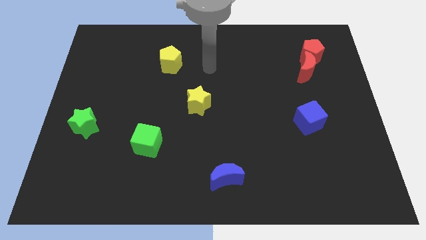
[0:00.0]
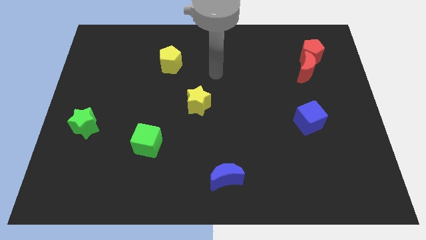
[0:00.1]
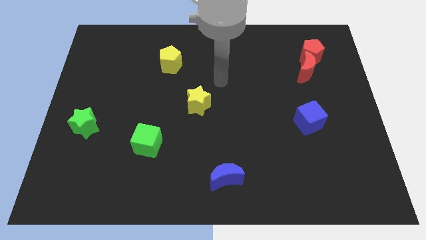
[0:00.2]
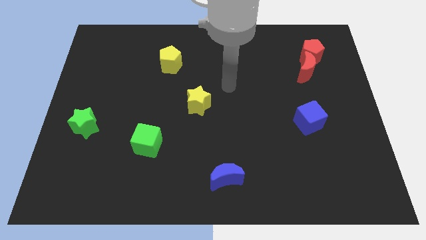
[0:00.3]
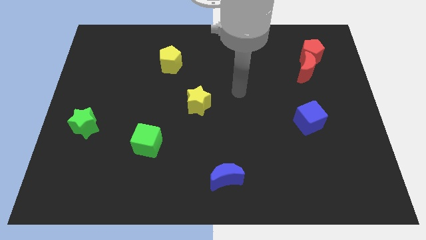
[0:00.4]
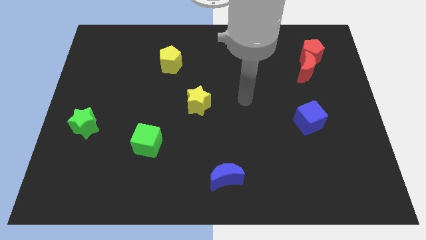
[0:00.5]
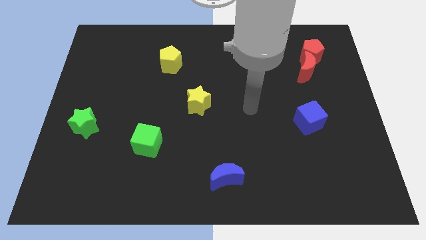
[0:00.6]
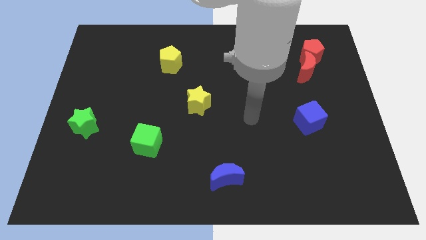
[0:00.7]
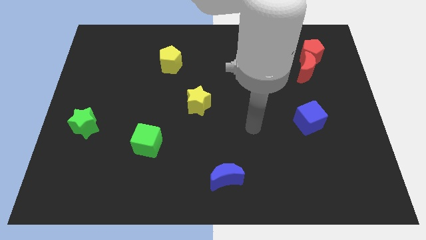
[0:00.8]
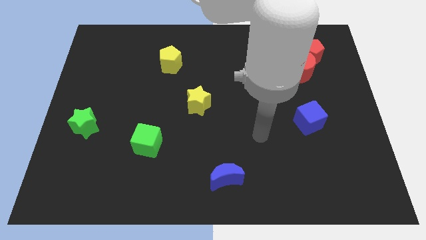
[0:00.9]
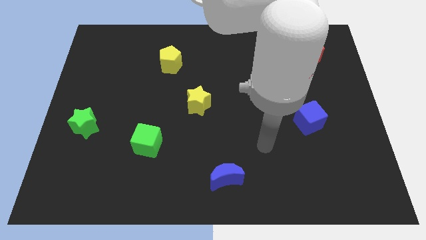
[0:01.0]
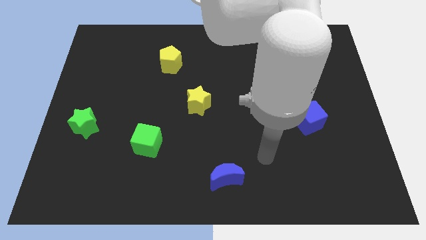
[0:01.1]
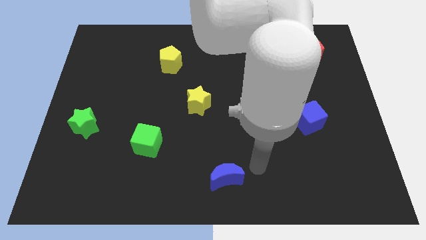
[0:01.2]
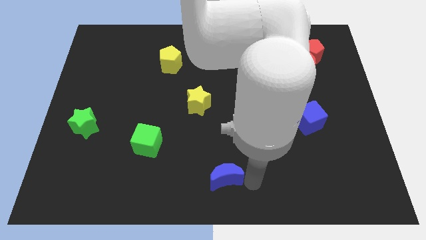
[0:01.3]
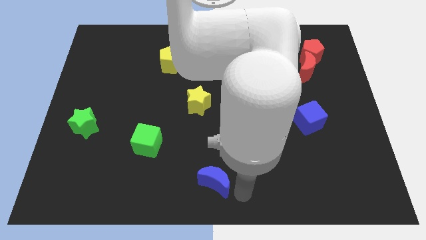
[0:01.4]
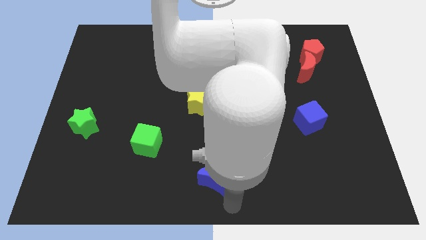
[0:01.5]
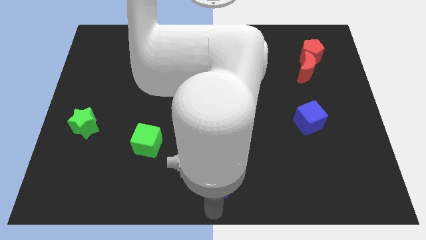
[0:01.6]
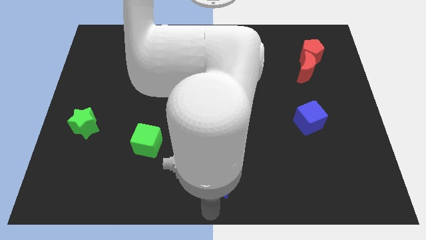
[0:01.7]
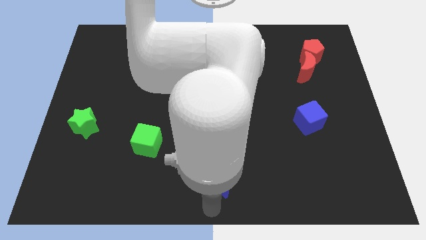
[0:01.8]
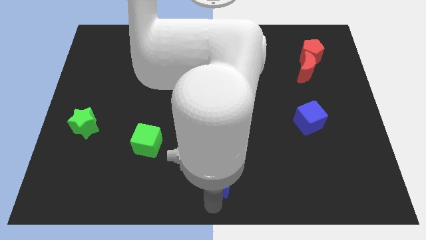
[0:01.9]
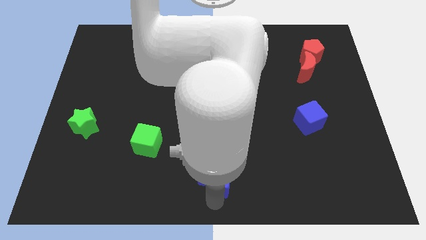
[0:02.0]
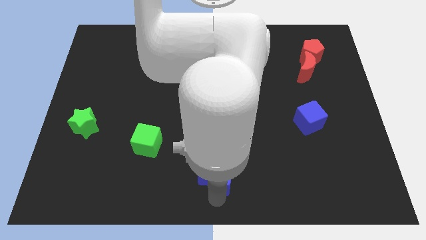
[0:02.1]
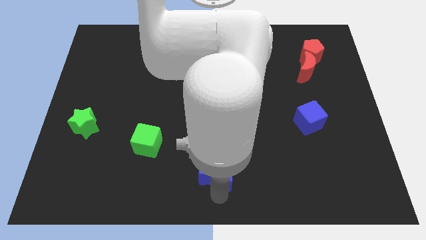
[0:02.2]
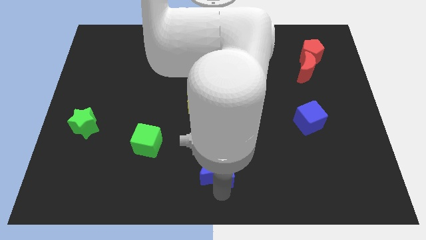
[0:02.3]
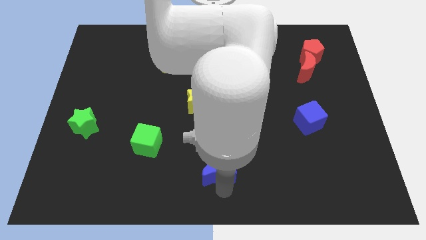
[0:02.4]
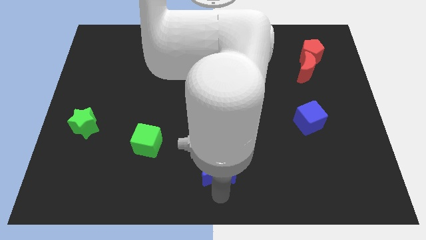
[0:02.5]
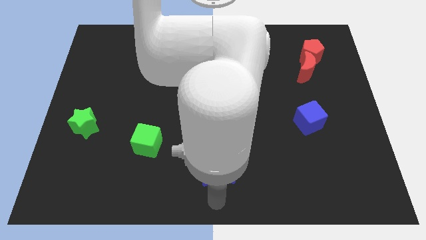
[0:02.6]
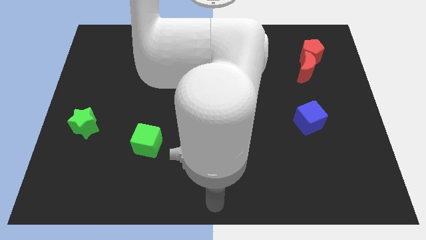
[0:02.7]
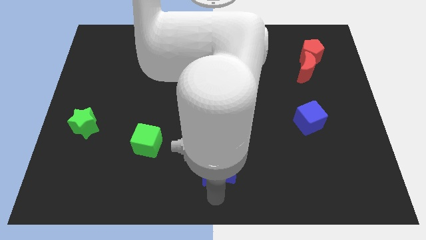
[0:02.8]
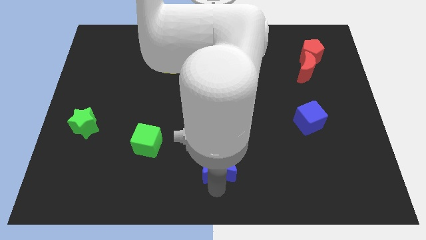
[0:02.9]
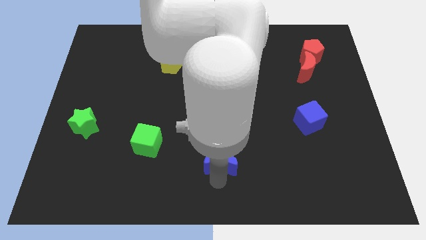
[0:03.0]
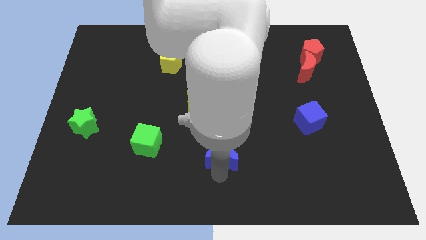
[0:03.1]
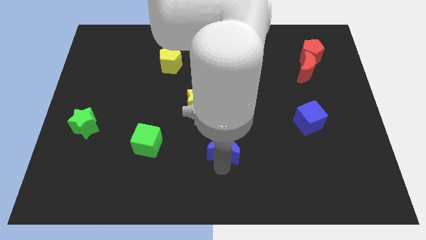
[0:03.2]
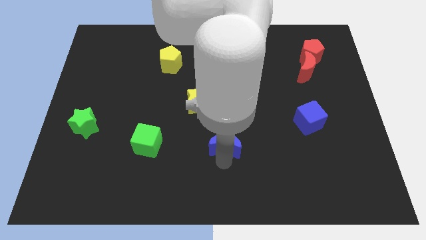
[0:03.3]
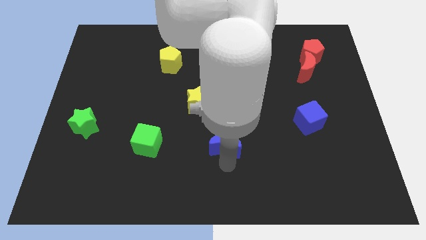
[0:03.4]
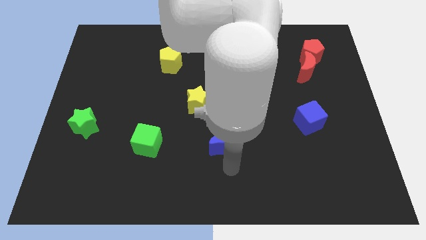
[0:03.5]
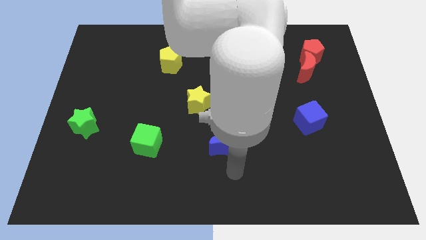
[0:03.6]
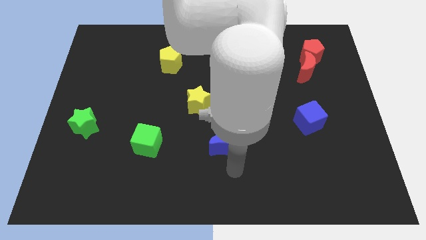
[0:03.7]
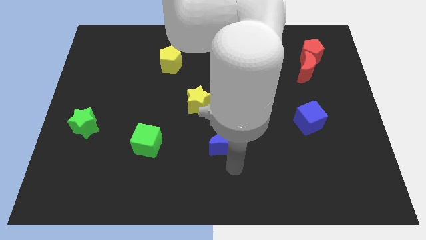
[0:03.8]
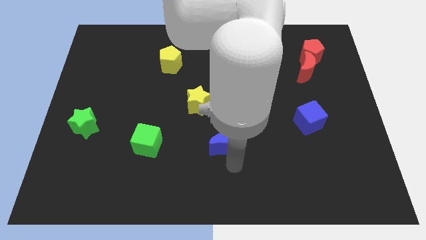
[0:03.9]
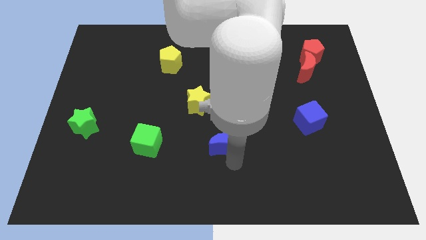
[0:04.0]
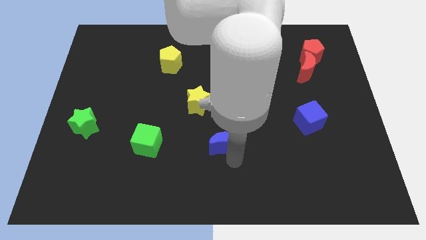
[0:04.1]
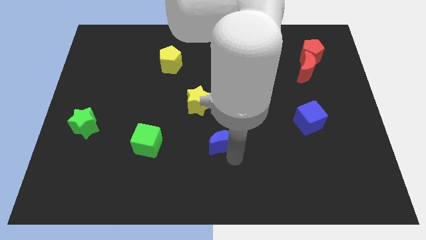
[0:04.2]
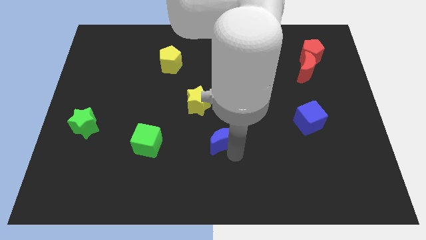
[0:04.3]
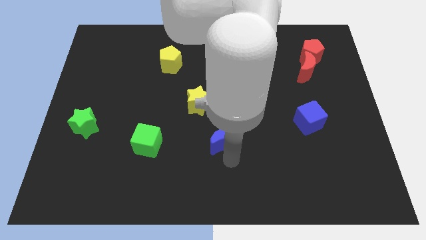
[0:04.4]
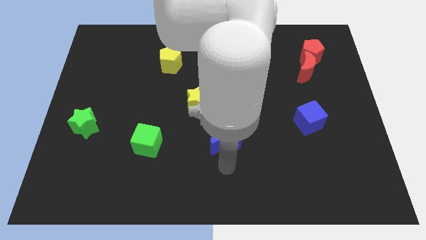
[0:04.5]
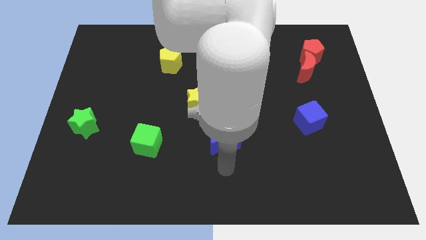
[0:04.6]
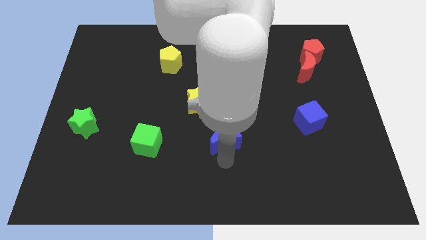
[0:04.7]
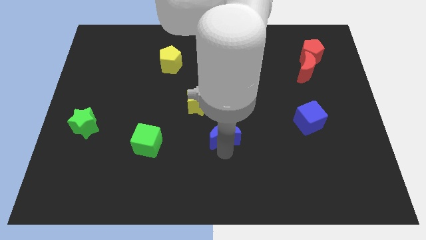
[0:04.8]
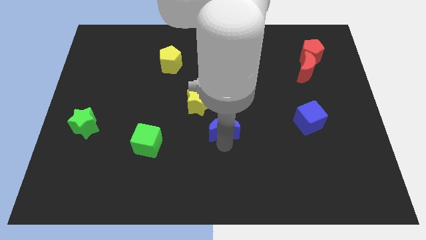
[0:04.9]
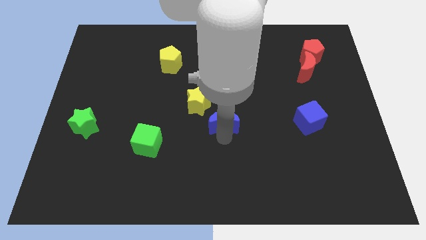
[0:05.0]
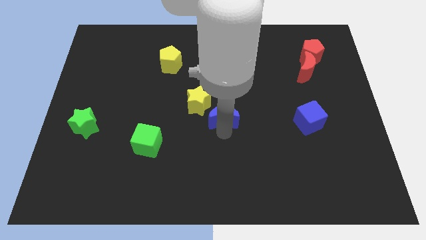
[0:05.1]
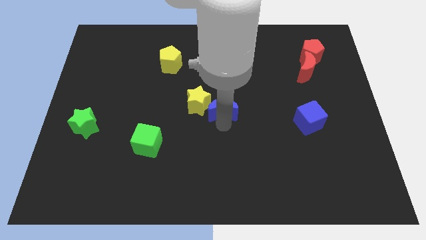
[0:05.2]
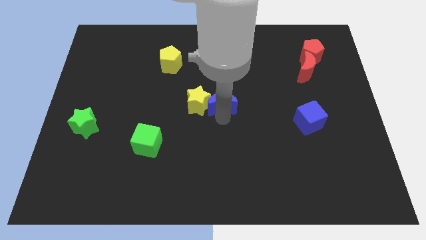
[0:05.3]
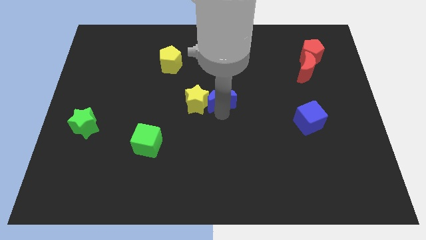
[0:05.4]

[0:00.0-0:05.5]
move the blue moon up

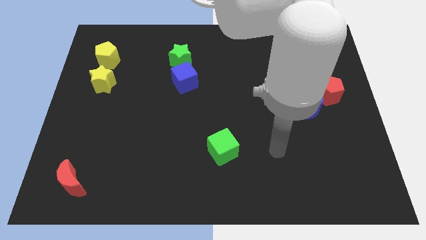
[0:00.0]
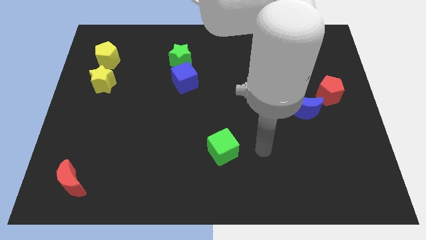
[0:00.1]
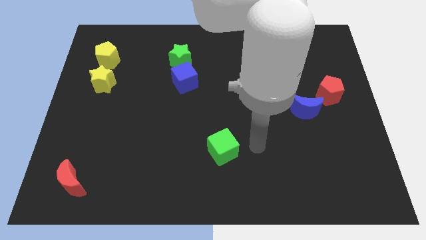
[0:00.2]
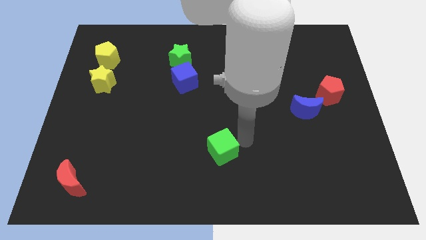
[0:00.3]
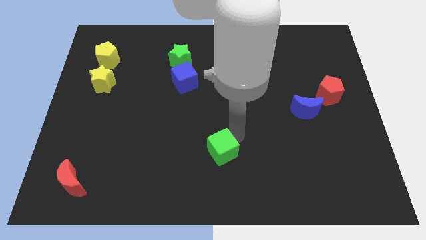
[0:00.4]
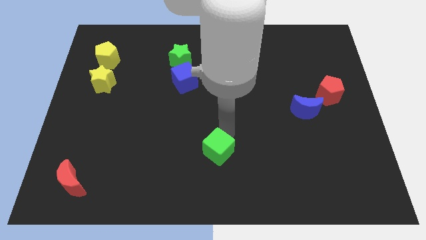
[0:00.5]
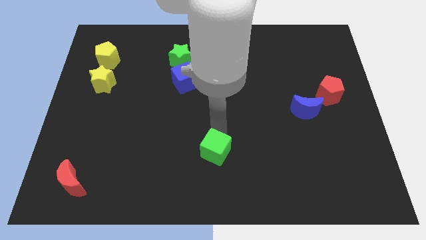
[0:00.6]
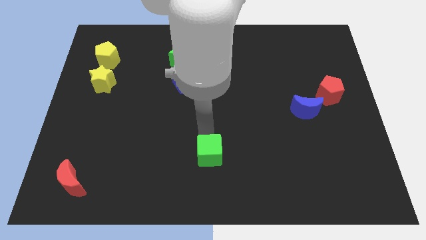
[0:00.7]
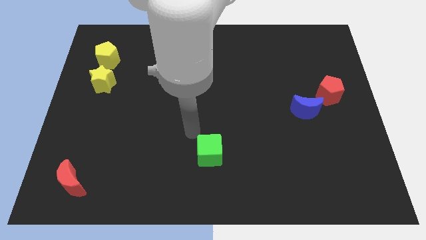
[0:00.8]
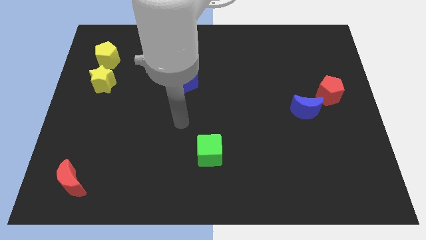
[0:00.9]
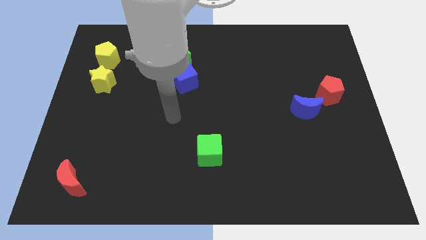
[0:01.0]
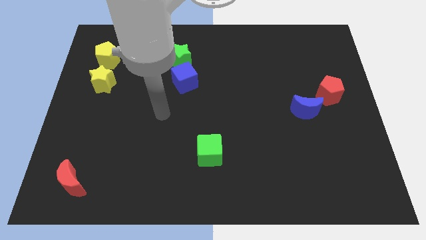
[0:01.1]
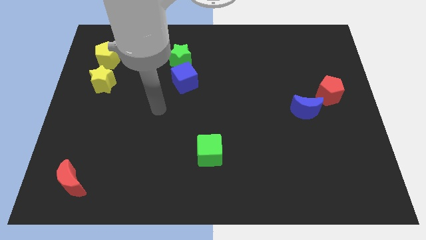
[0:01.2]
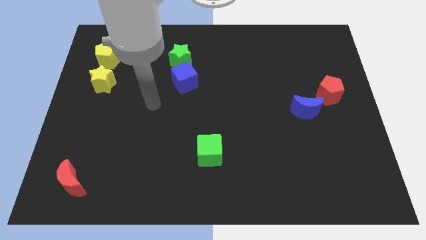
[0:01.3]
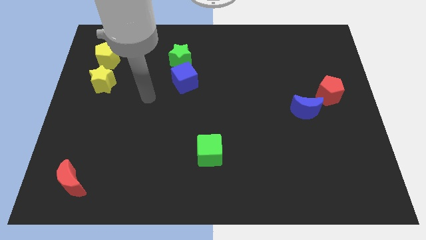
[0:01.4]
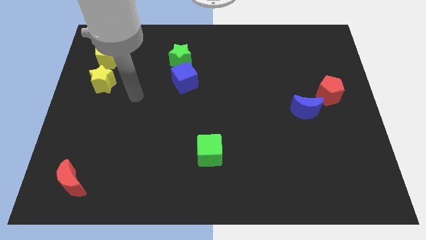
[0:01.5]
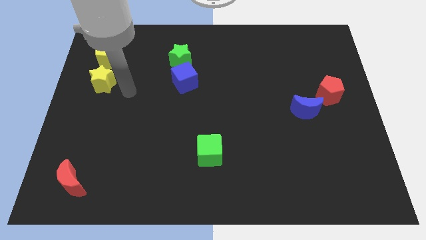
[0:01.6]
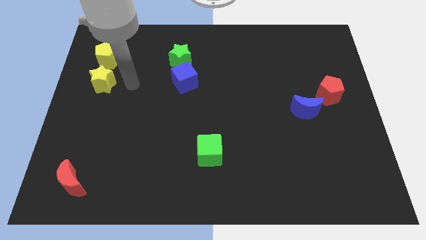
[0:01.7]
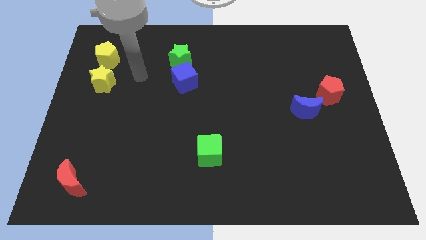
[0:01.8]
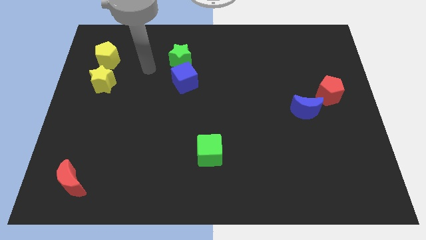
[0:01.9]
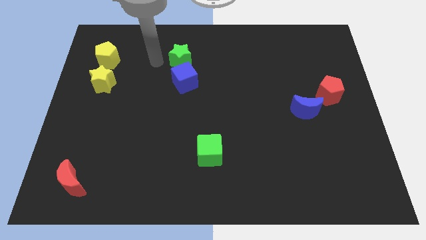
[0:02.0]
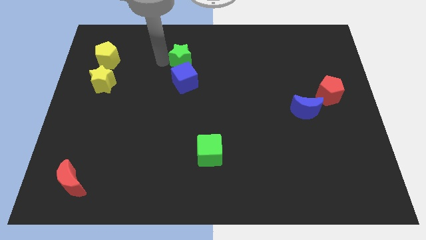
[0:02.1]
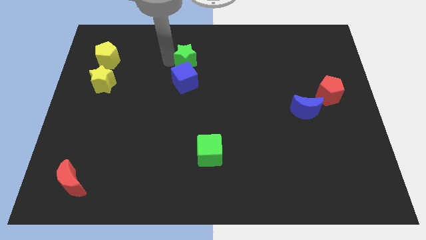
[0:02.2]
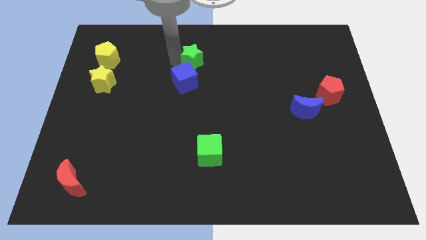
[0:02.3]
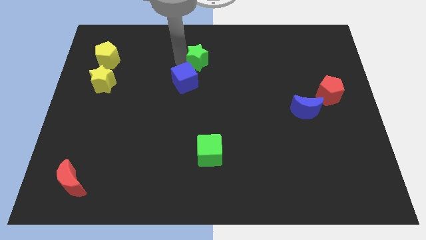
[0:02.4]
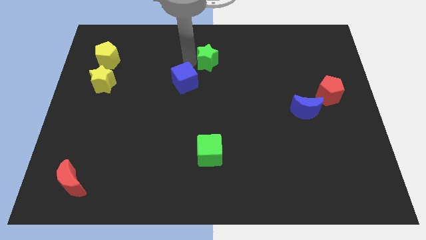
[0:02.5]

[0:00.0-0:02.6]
slightly push the green star right
